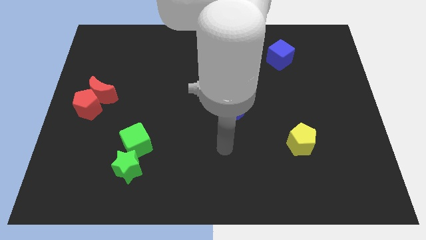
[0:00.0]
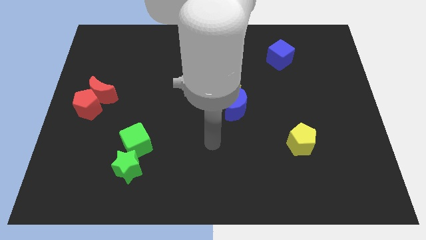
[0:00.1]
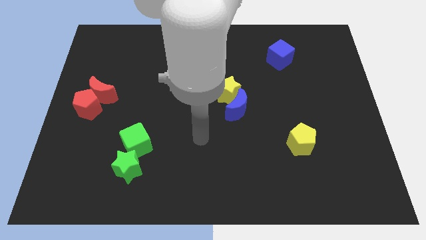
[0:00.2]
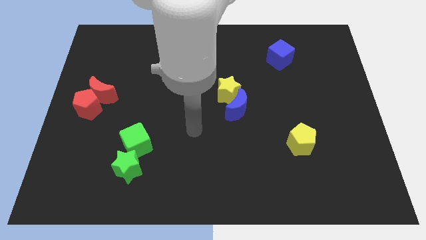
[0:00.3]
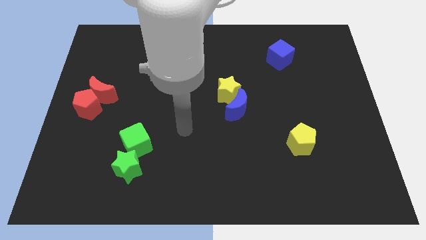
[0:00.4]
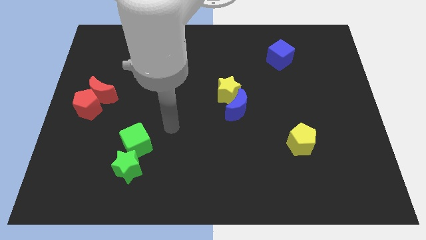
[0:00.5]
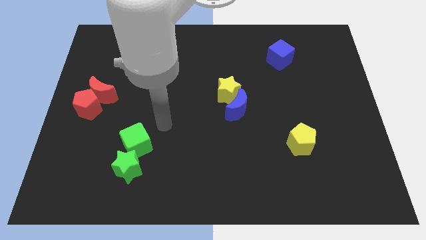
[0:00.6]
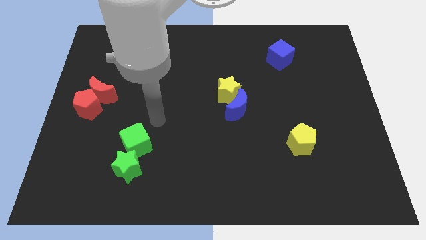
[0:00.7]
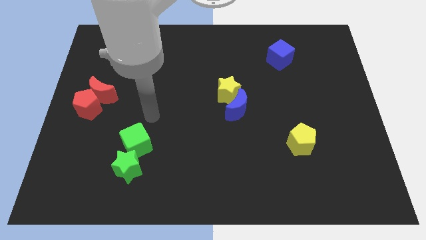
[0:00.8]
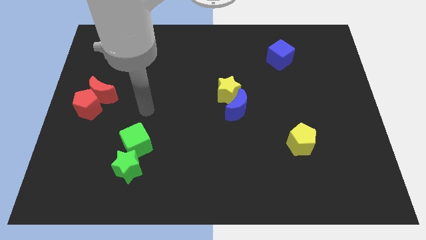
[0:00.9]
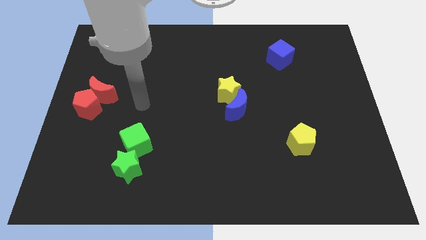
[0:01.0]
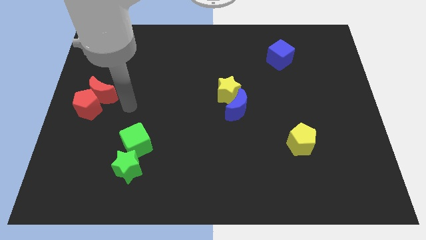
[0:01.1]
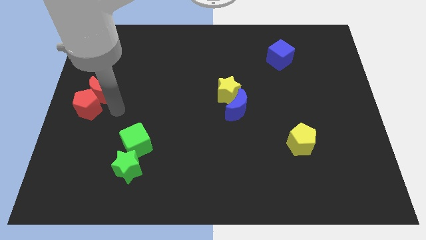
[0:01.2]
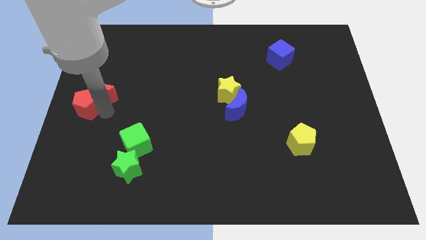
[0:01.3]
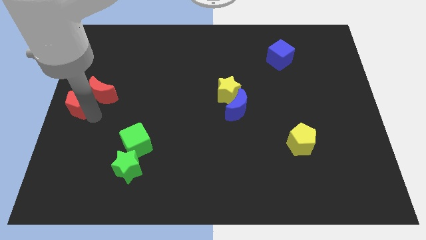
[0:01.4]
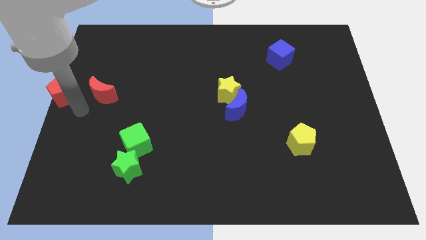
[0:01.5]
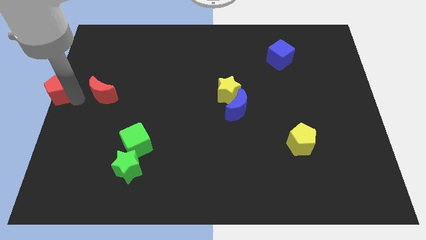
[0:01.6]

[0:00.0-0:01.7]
separate the red moon from the red pentagon

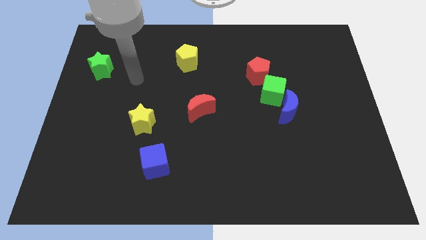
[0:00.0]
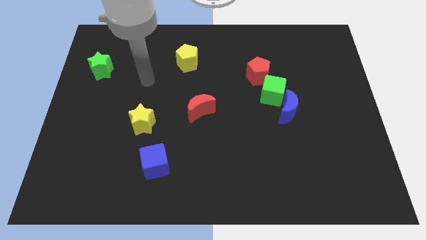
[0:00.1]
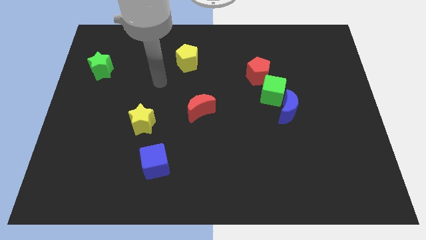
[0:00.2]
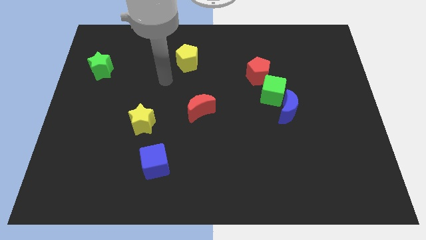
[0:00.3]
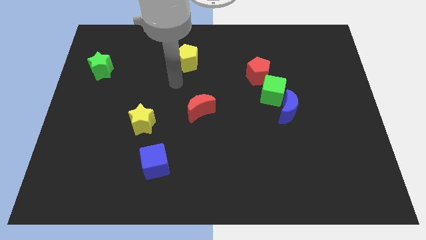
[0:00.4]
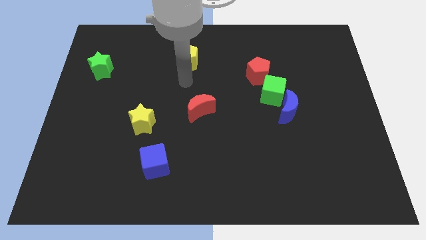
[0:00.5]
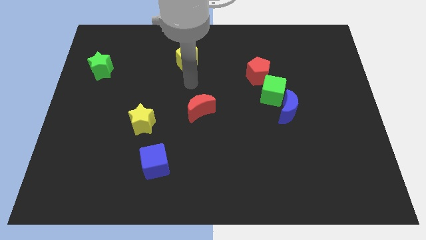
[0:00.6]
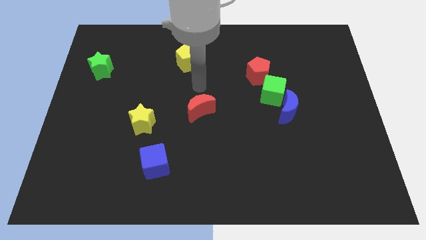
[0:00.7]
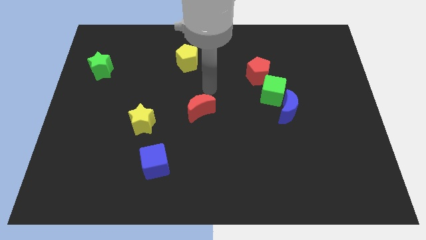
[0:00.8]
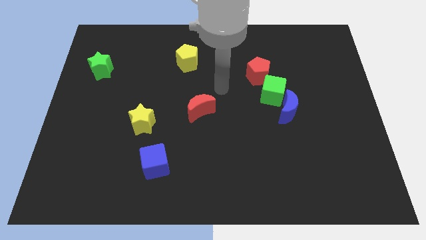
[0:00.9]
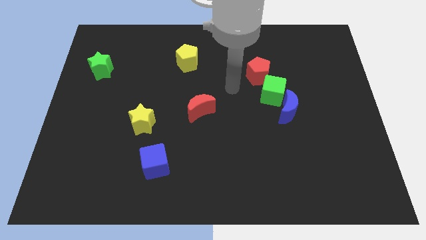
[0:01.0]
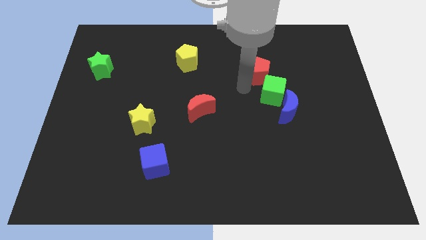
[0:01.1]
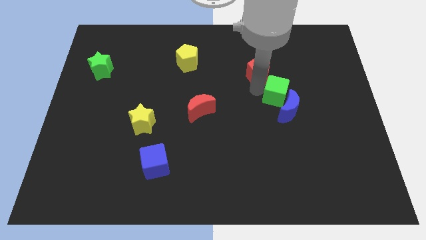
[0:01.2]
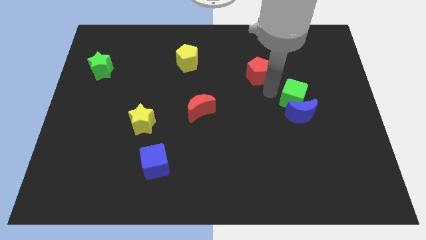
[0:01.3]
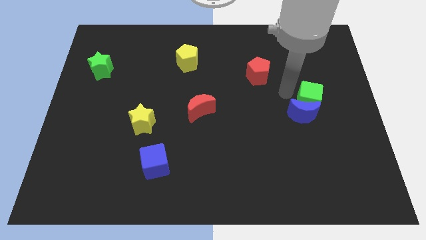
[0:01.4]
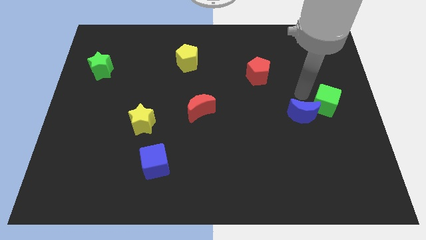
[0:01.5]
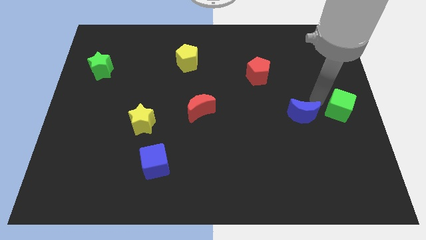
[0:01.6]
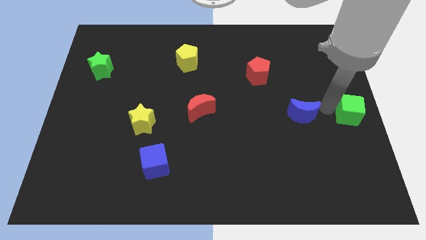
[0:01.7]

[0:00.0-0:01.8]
separate the blue moon from the green cube

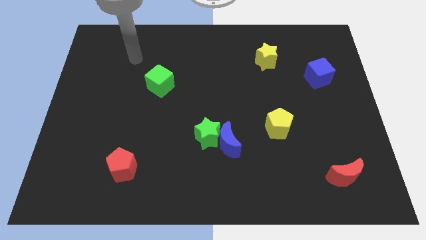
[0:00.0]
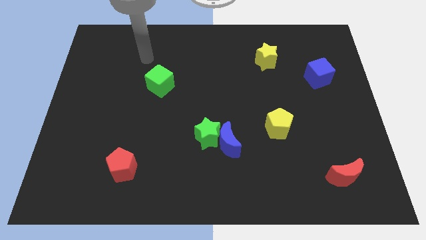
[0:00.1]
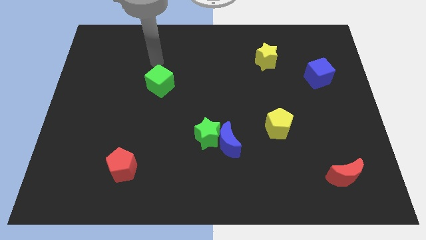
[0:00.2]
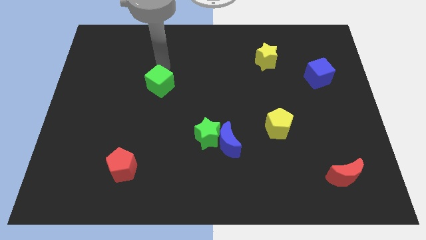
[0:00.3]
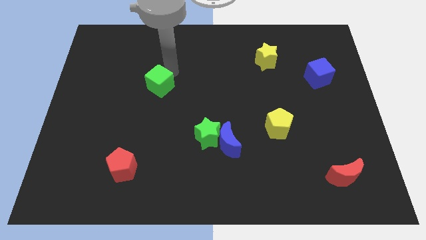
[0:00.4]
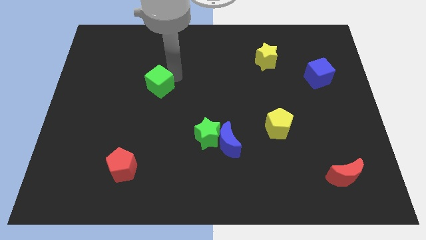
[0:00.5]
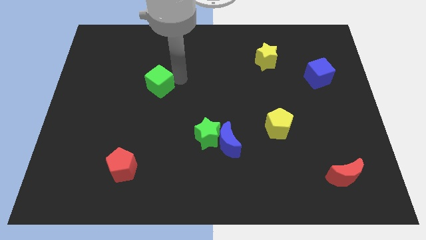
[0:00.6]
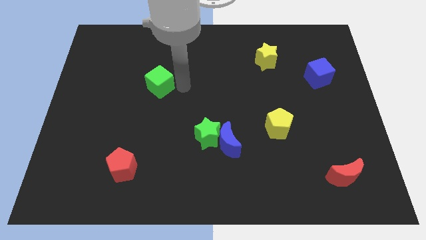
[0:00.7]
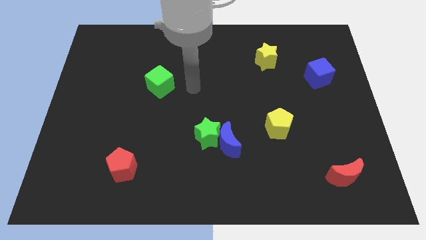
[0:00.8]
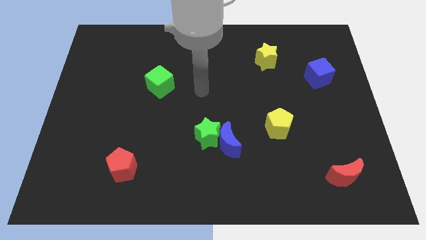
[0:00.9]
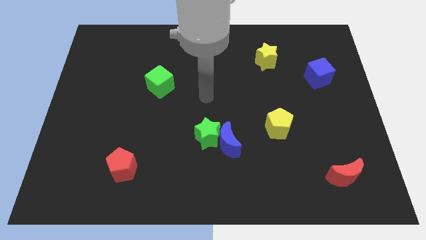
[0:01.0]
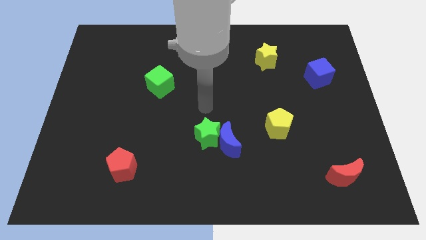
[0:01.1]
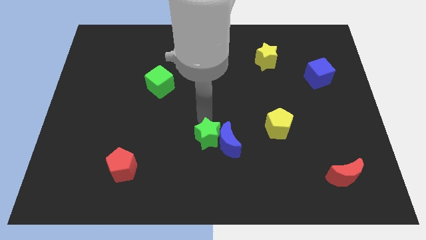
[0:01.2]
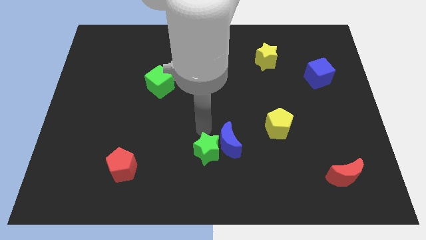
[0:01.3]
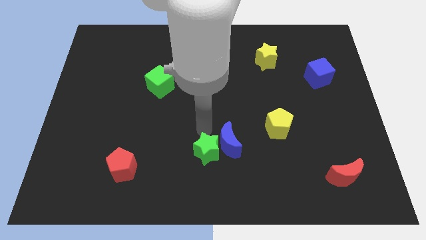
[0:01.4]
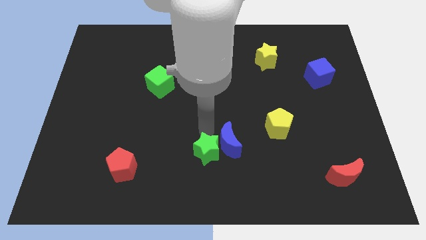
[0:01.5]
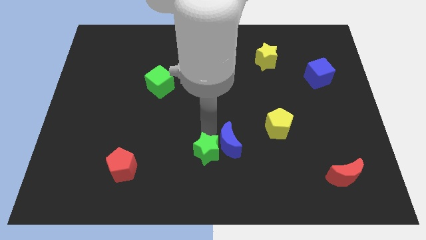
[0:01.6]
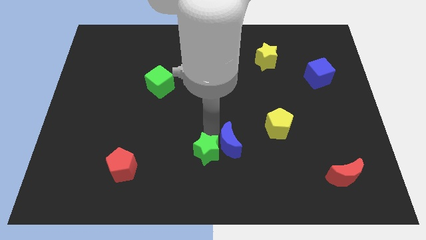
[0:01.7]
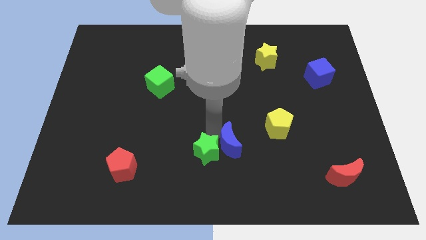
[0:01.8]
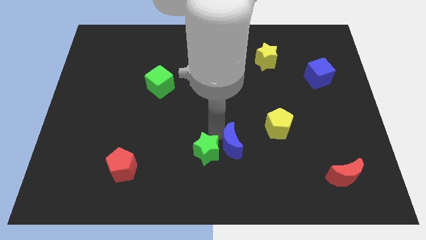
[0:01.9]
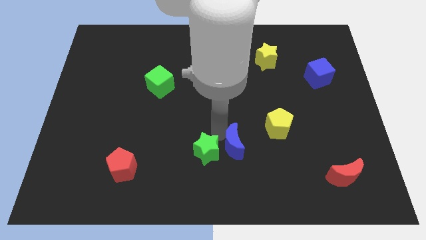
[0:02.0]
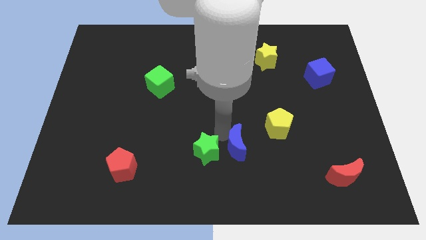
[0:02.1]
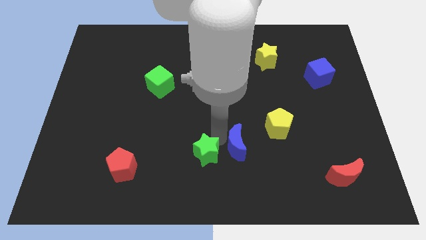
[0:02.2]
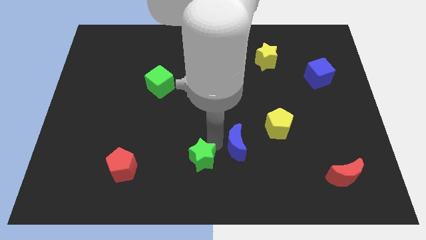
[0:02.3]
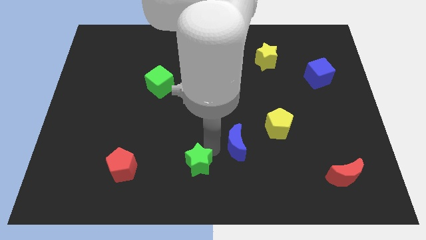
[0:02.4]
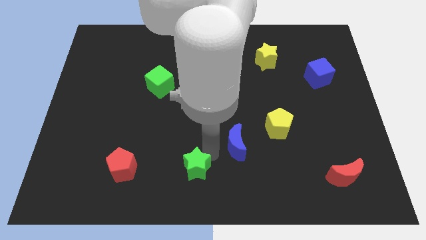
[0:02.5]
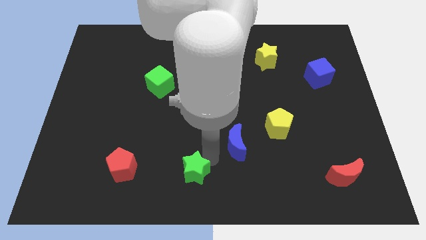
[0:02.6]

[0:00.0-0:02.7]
move the blue moon away from the green star

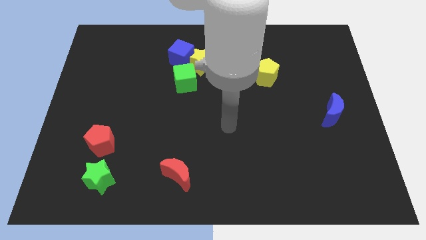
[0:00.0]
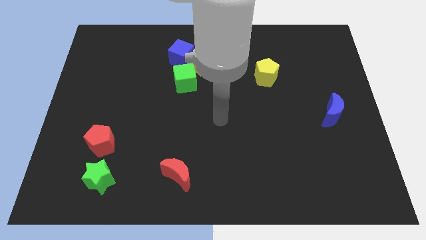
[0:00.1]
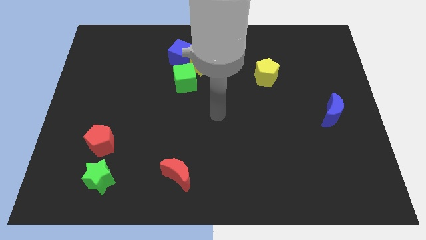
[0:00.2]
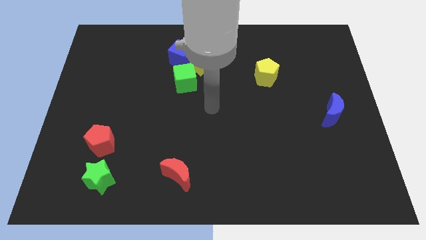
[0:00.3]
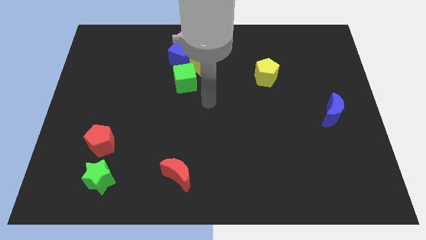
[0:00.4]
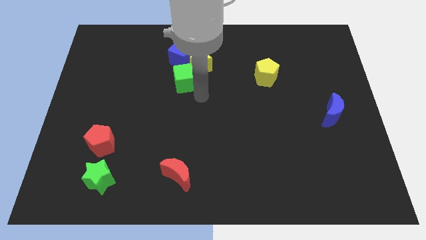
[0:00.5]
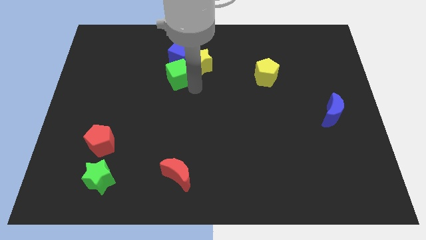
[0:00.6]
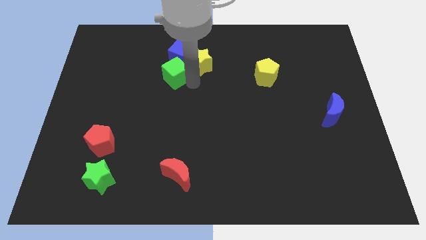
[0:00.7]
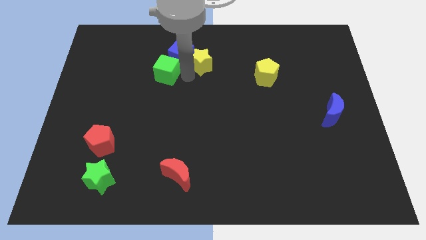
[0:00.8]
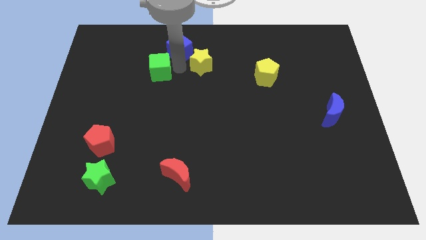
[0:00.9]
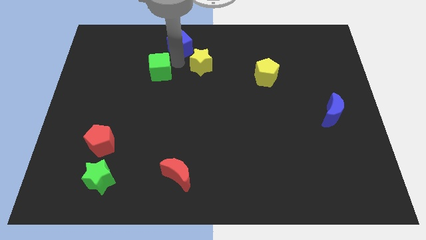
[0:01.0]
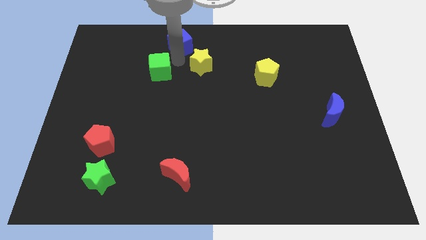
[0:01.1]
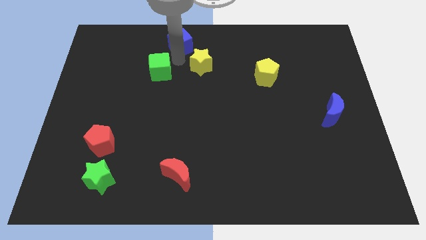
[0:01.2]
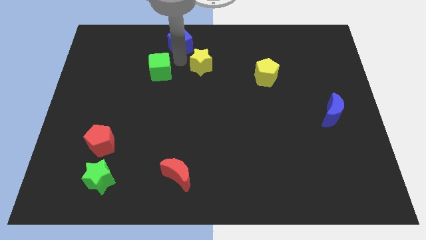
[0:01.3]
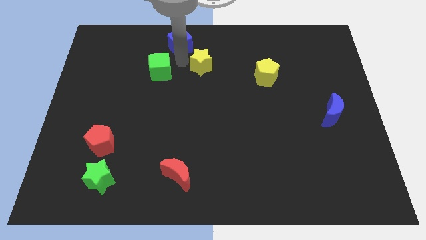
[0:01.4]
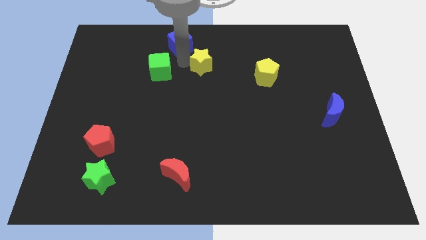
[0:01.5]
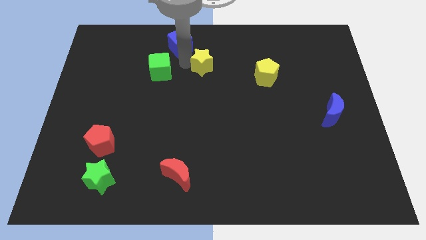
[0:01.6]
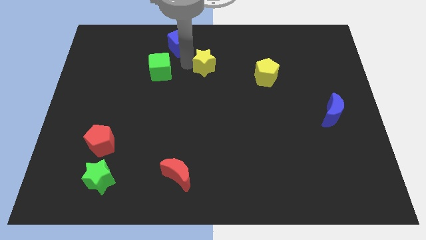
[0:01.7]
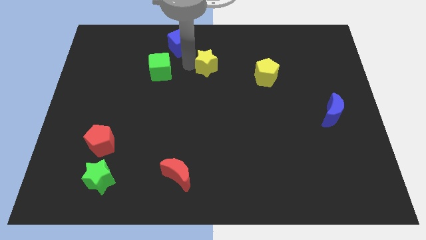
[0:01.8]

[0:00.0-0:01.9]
move the yellow star away from the blue cube and green cube

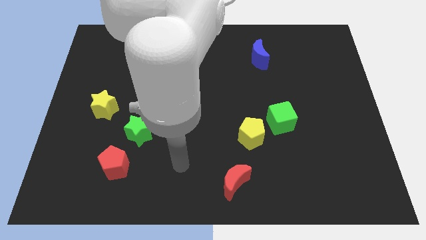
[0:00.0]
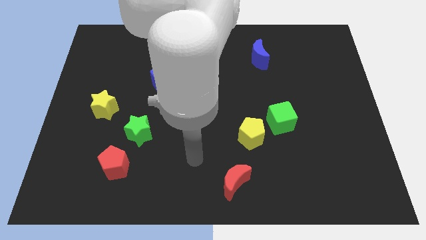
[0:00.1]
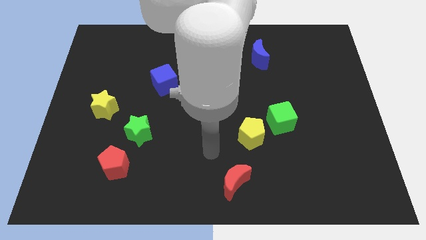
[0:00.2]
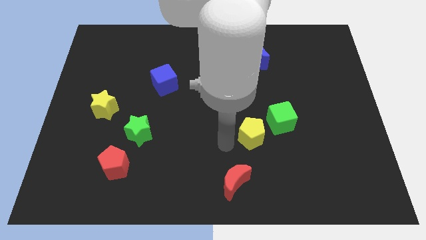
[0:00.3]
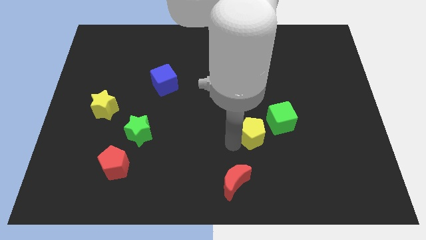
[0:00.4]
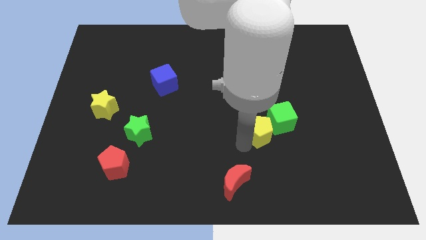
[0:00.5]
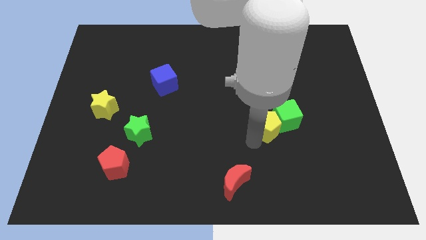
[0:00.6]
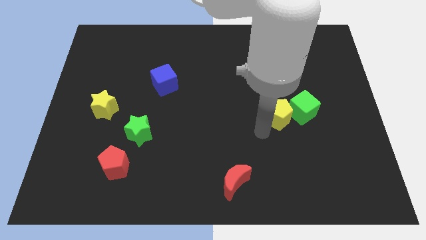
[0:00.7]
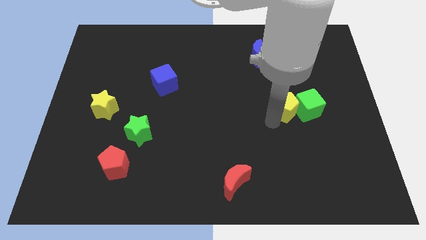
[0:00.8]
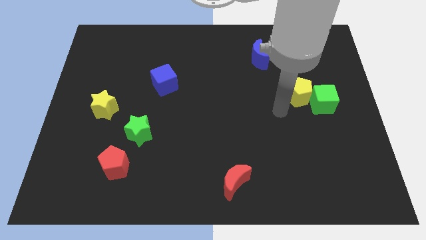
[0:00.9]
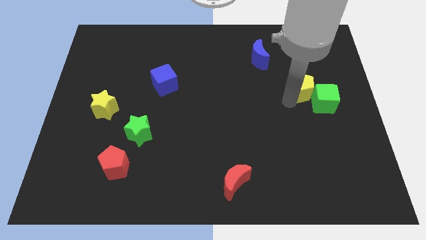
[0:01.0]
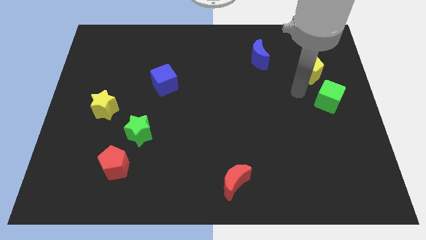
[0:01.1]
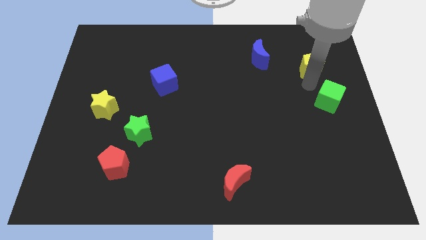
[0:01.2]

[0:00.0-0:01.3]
separate the green cube from the yellow pentagon
